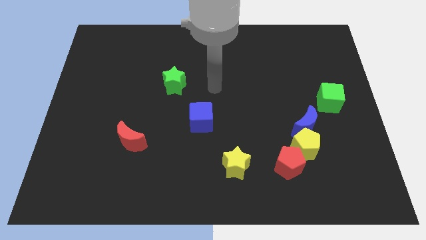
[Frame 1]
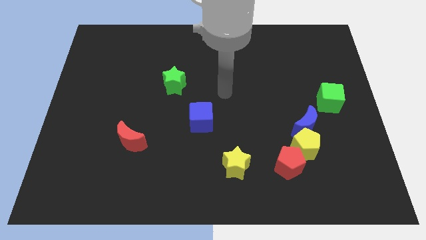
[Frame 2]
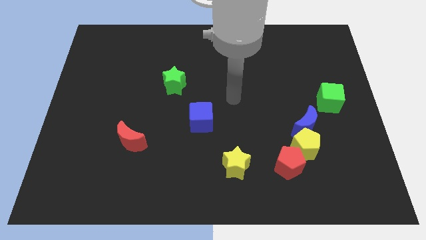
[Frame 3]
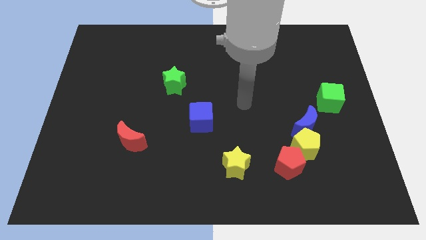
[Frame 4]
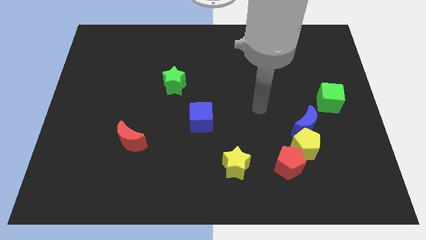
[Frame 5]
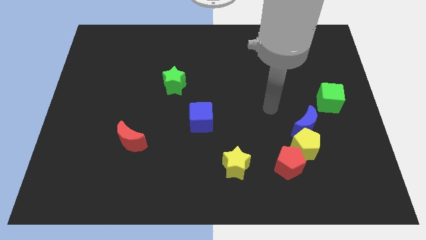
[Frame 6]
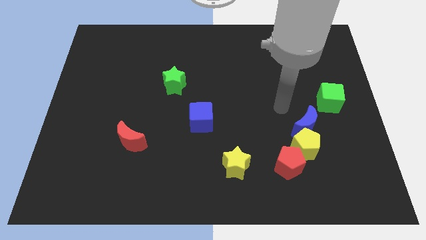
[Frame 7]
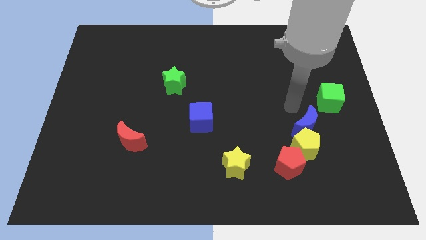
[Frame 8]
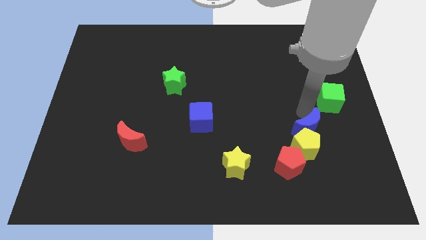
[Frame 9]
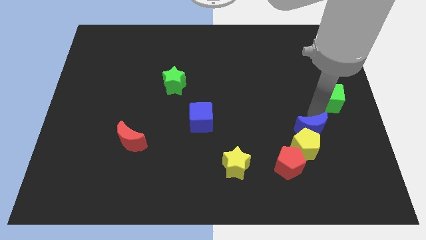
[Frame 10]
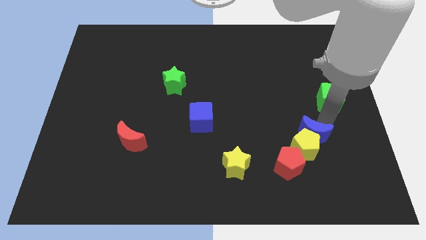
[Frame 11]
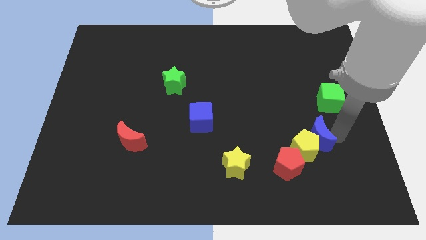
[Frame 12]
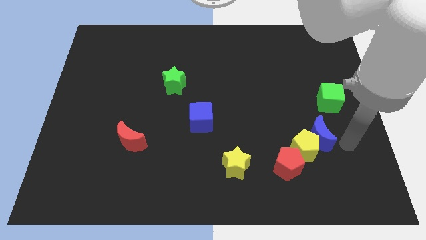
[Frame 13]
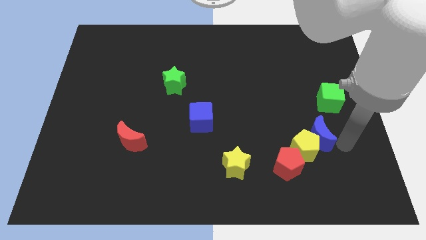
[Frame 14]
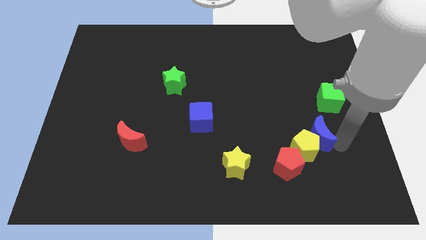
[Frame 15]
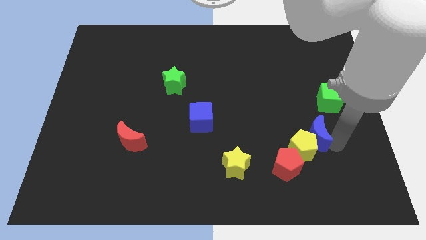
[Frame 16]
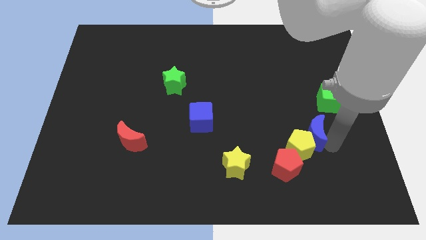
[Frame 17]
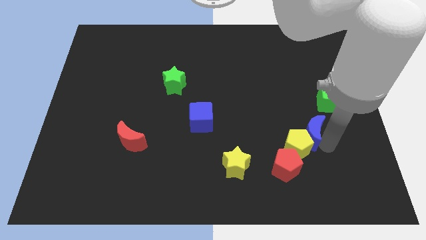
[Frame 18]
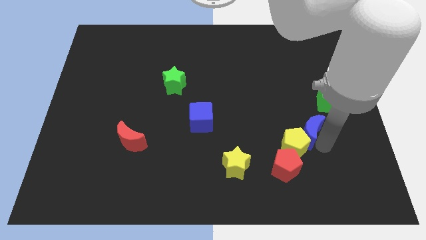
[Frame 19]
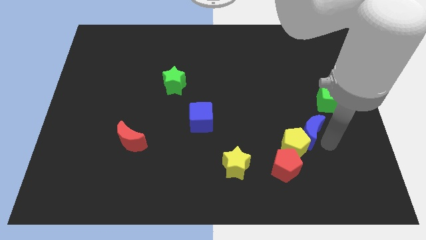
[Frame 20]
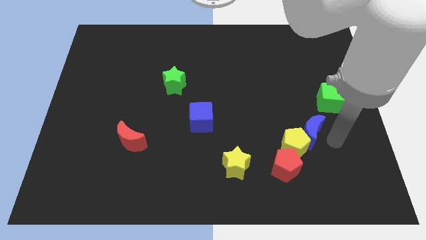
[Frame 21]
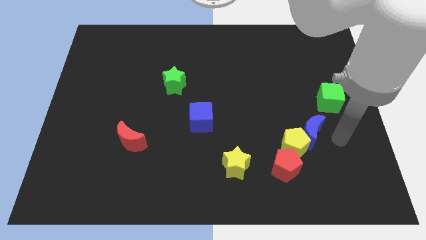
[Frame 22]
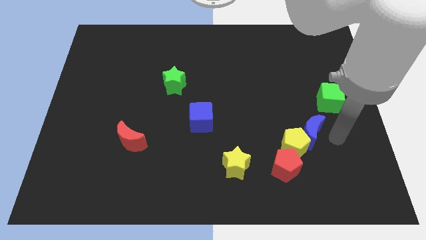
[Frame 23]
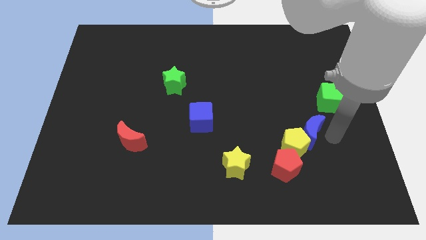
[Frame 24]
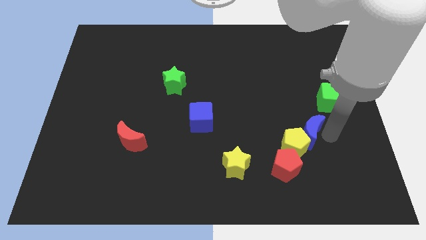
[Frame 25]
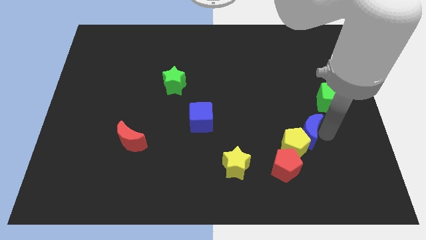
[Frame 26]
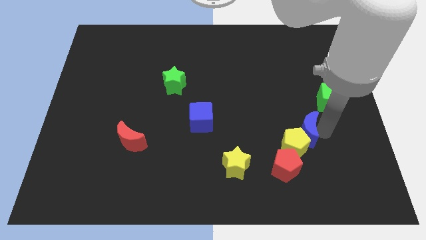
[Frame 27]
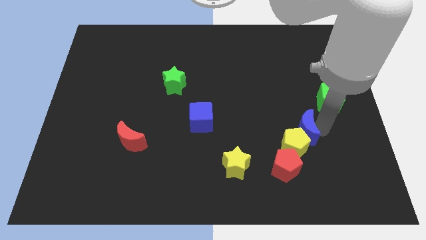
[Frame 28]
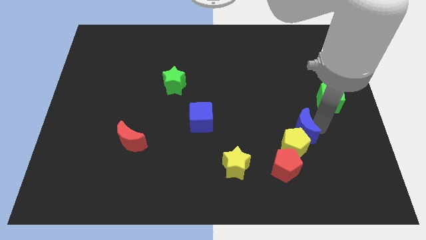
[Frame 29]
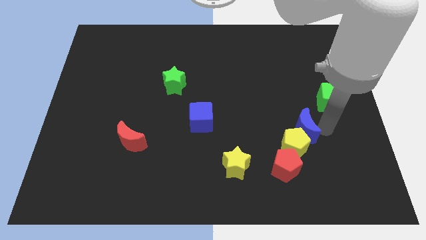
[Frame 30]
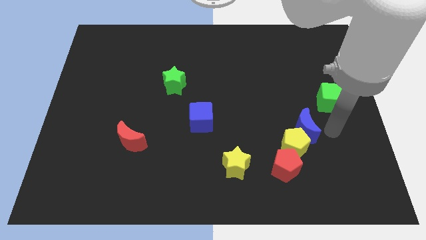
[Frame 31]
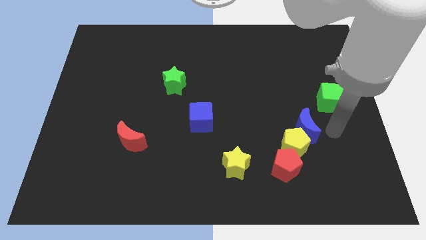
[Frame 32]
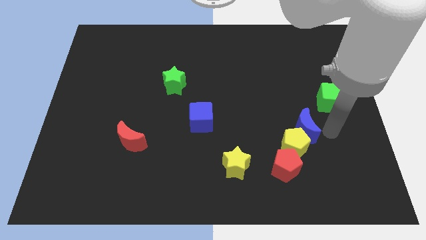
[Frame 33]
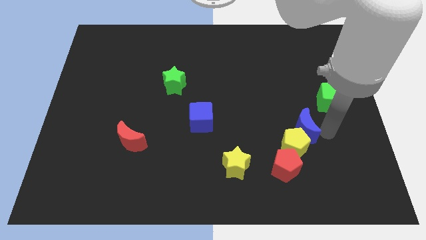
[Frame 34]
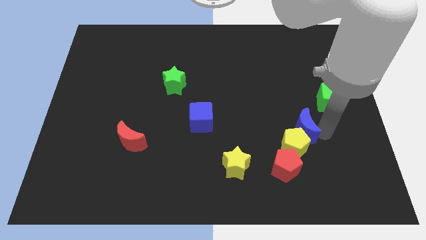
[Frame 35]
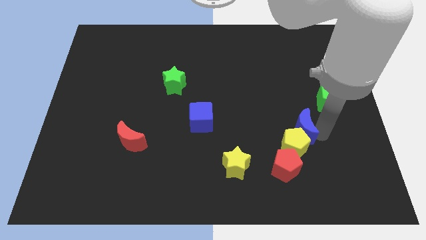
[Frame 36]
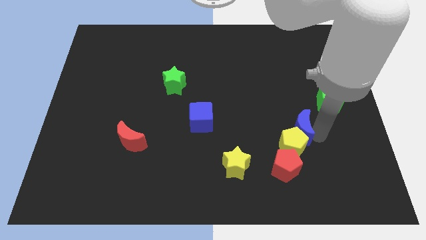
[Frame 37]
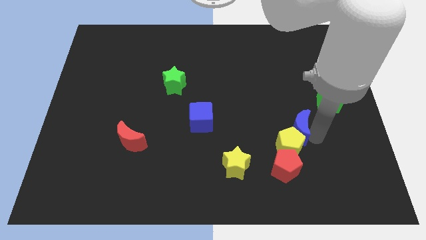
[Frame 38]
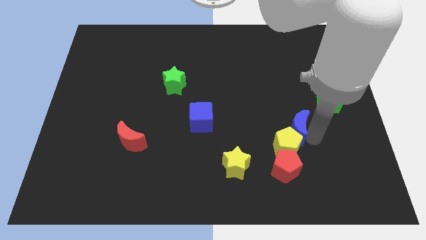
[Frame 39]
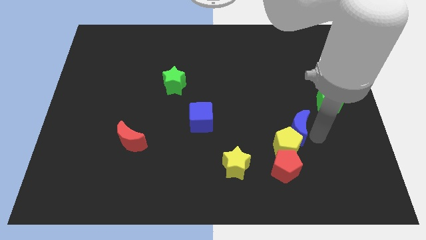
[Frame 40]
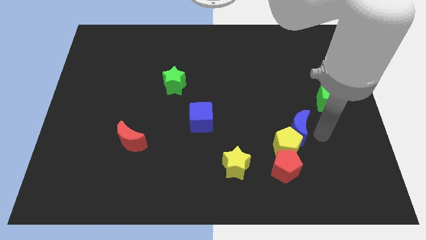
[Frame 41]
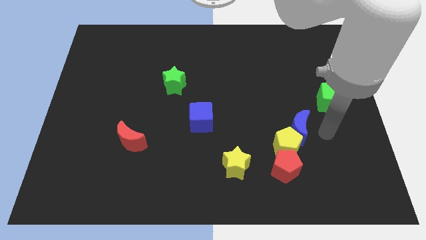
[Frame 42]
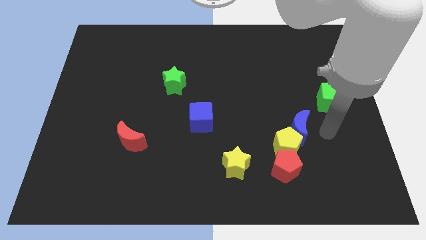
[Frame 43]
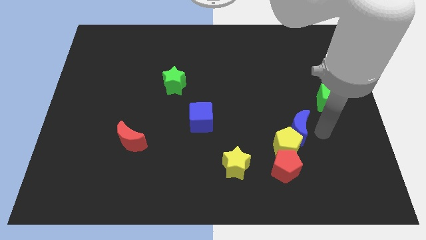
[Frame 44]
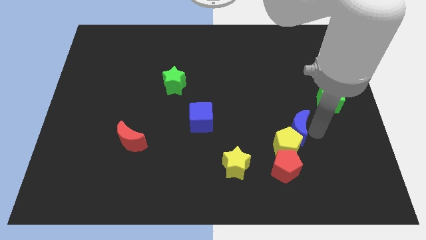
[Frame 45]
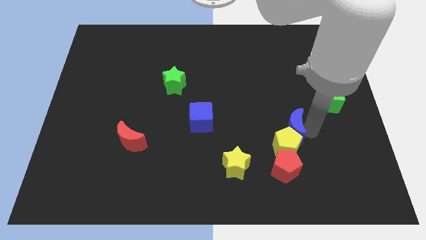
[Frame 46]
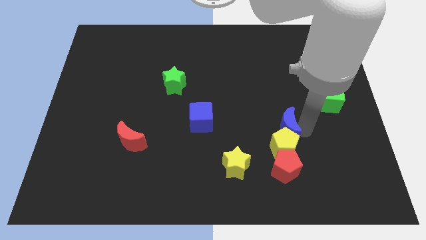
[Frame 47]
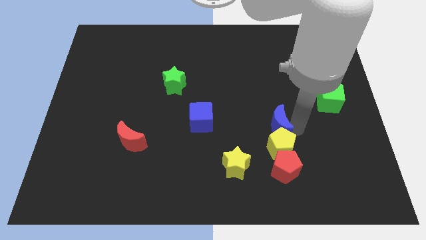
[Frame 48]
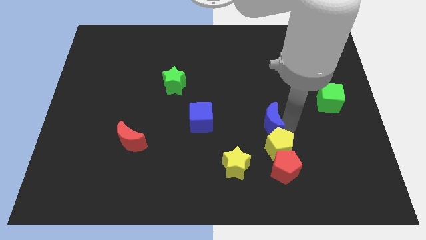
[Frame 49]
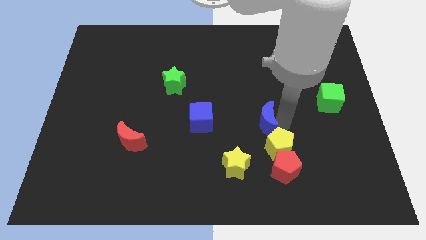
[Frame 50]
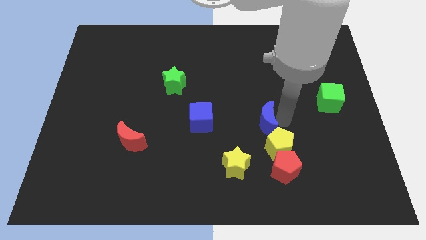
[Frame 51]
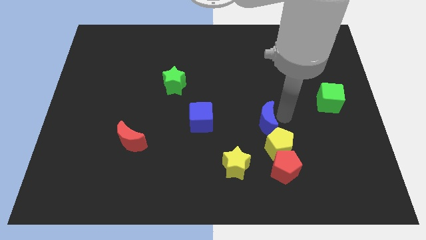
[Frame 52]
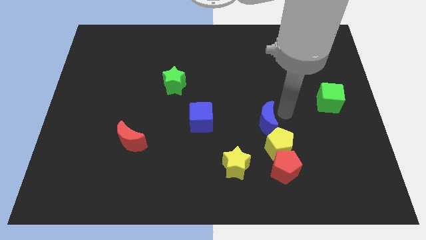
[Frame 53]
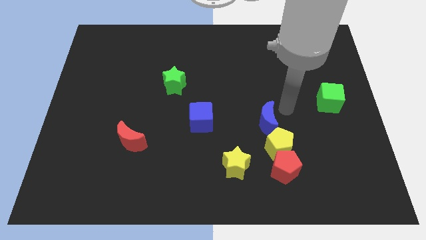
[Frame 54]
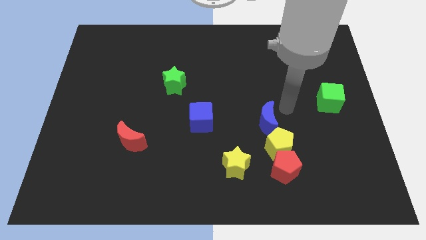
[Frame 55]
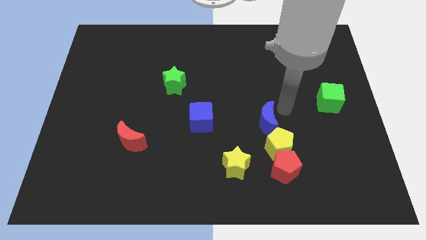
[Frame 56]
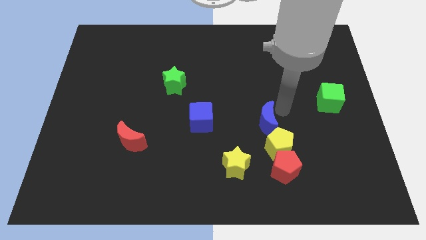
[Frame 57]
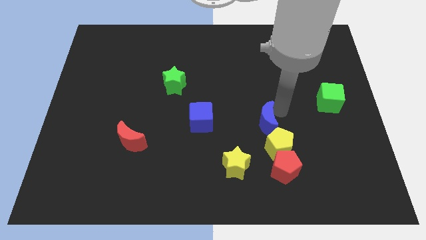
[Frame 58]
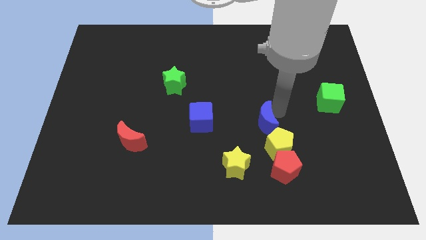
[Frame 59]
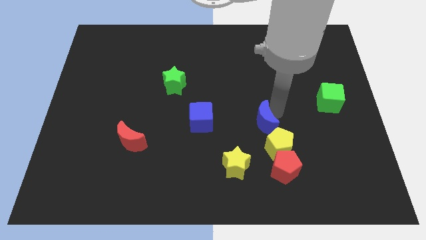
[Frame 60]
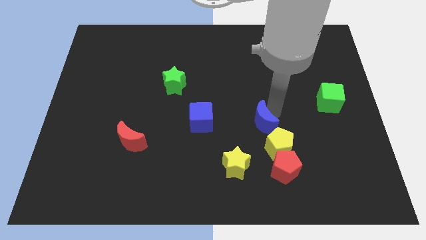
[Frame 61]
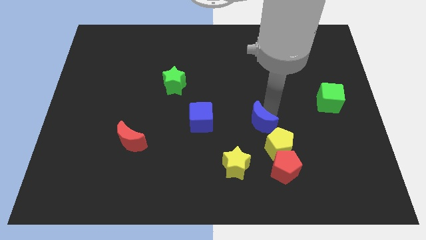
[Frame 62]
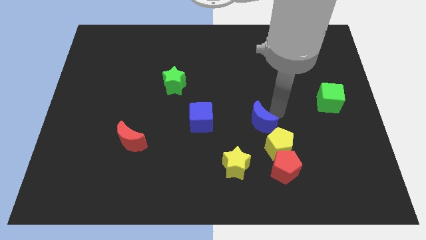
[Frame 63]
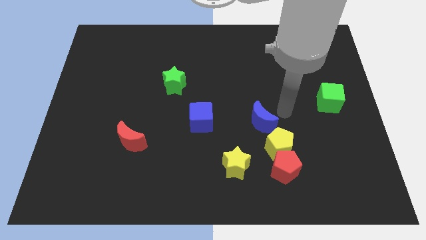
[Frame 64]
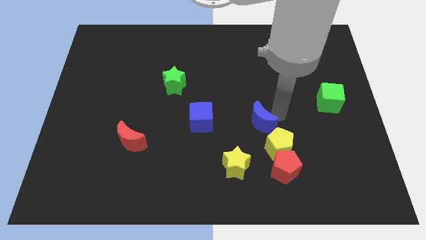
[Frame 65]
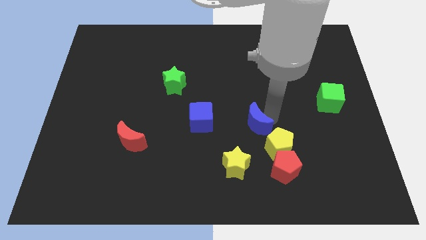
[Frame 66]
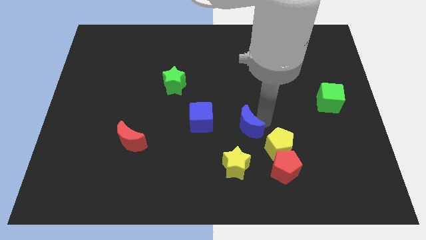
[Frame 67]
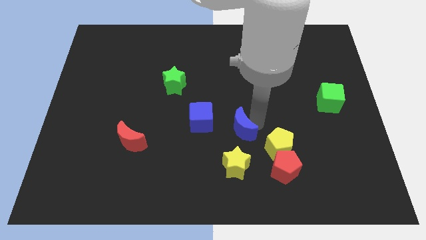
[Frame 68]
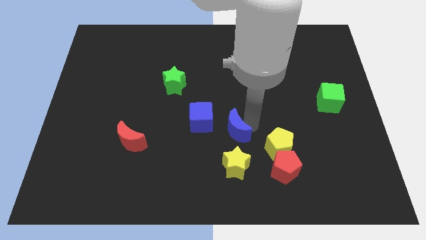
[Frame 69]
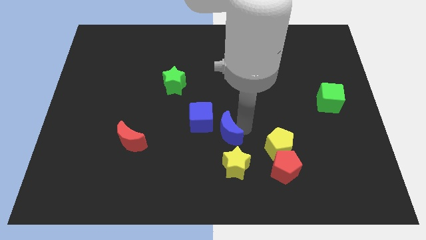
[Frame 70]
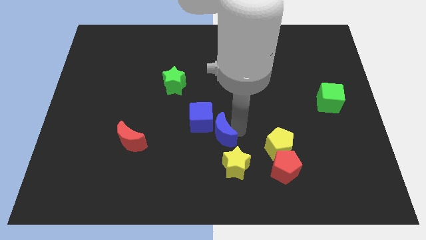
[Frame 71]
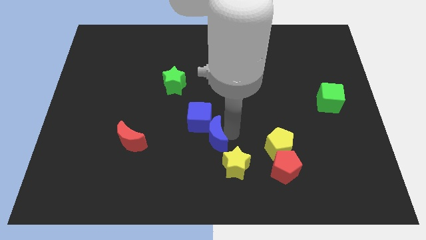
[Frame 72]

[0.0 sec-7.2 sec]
slide the blue moon left
